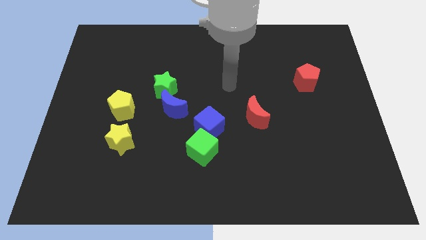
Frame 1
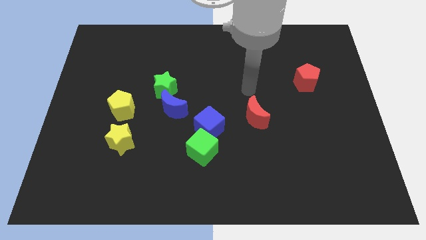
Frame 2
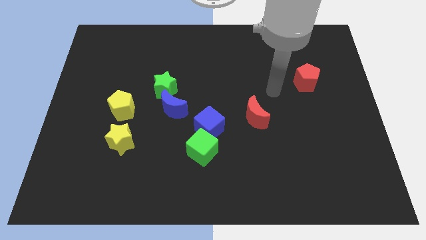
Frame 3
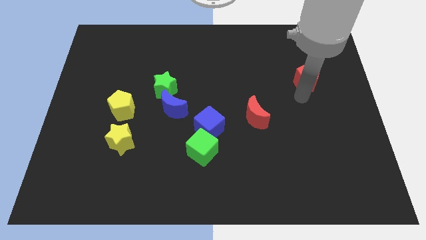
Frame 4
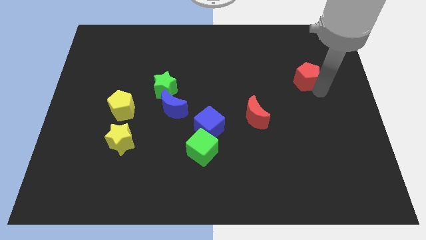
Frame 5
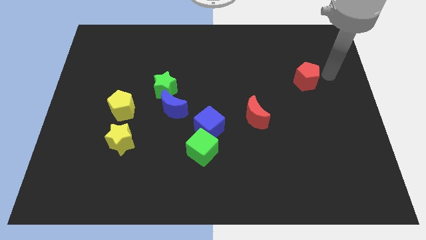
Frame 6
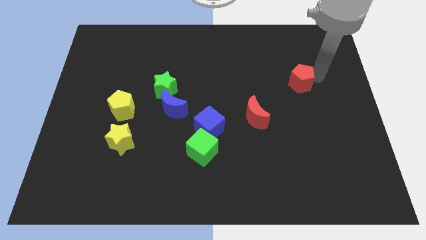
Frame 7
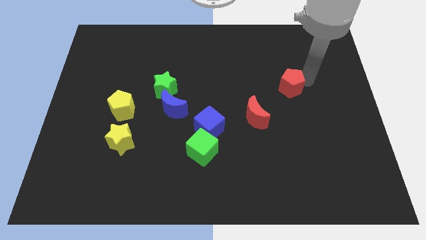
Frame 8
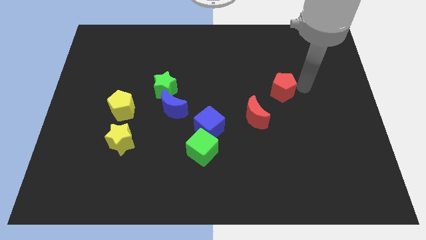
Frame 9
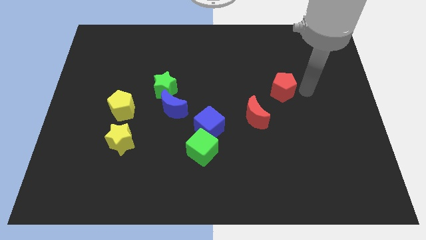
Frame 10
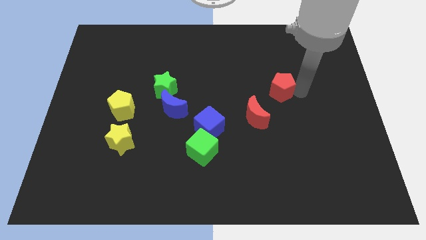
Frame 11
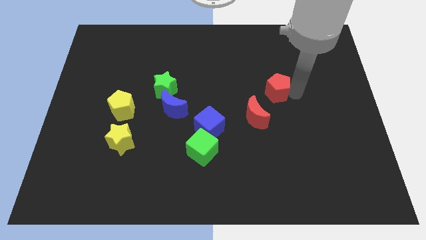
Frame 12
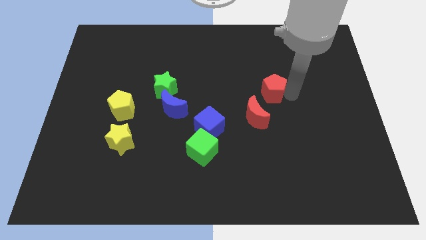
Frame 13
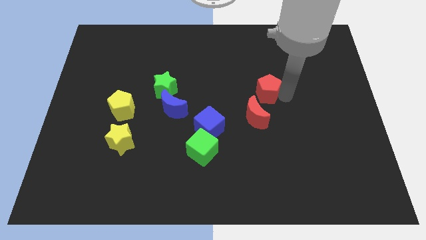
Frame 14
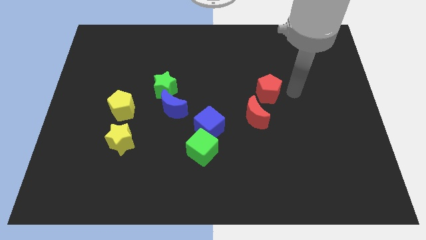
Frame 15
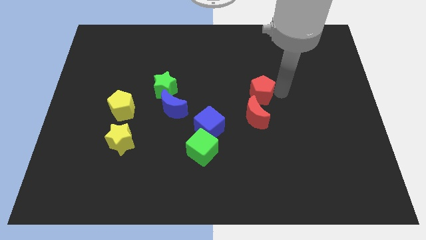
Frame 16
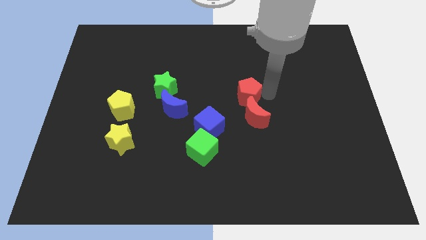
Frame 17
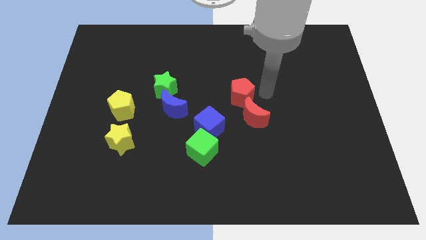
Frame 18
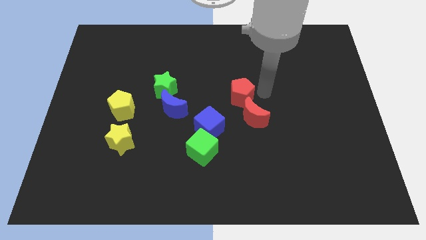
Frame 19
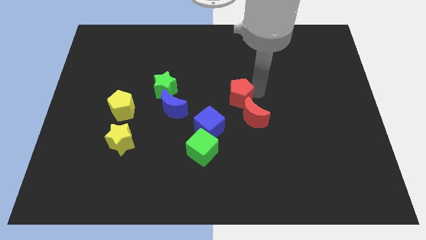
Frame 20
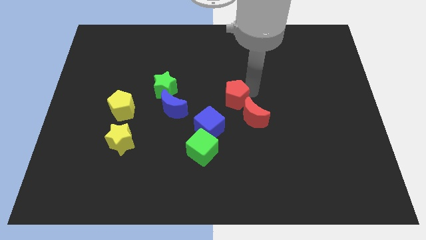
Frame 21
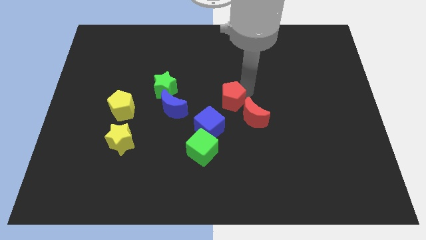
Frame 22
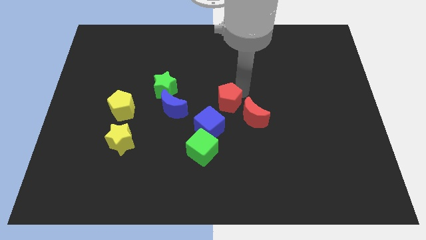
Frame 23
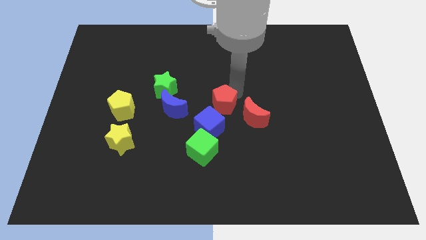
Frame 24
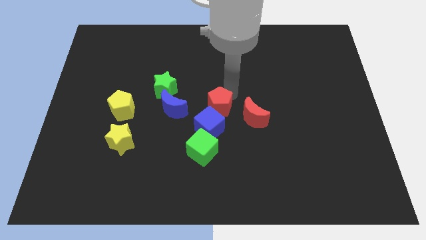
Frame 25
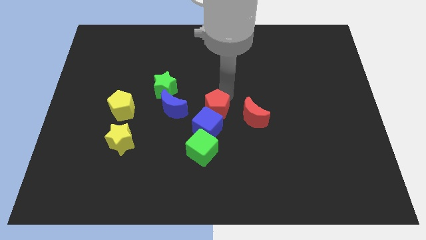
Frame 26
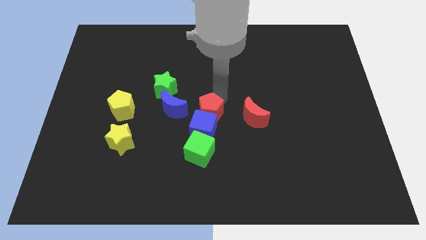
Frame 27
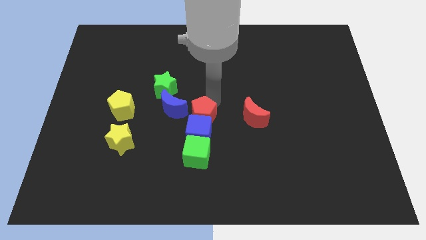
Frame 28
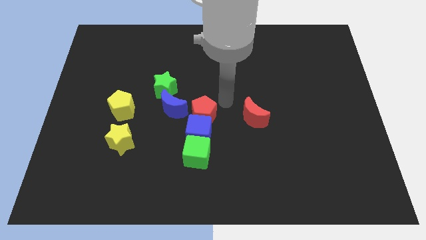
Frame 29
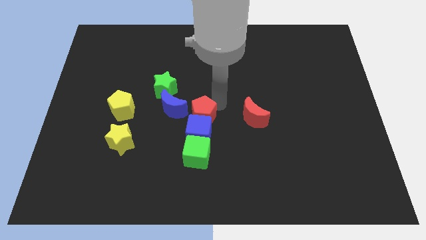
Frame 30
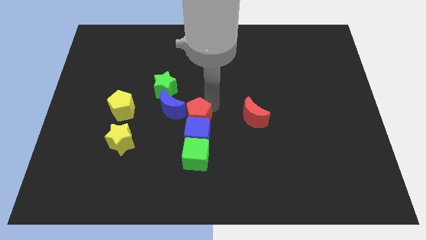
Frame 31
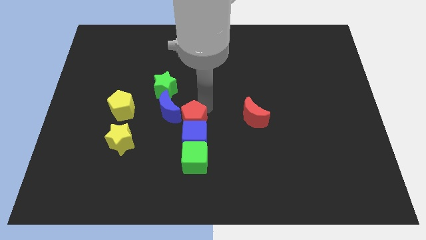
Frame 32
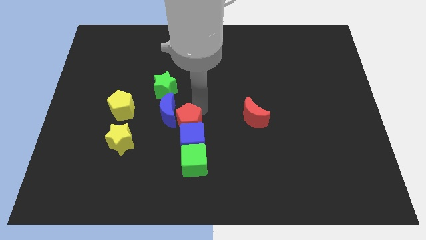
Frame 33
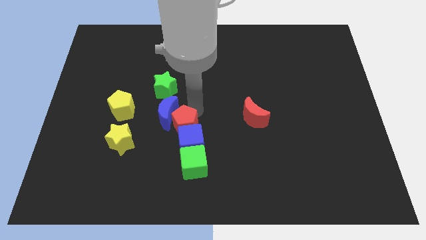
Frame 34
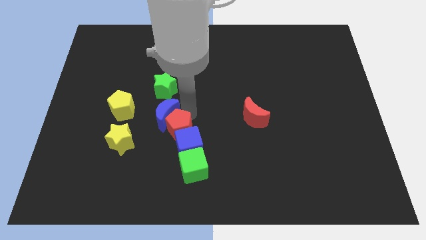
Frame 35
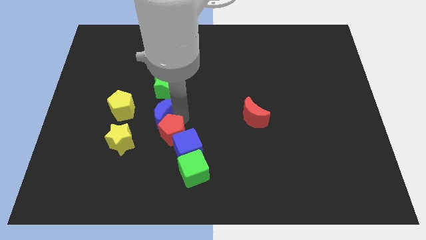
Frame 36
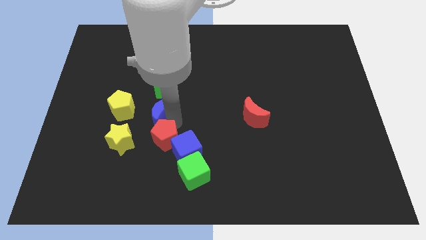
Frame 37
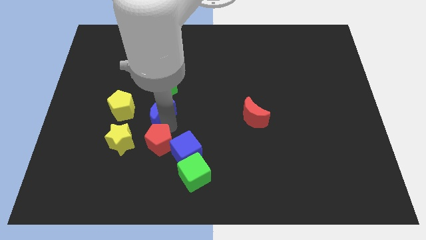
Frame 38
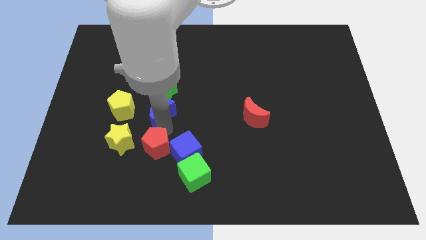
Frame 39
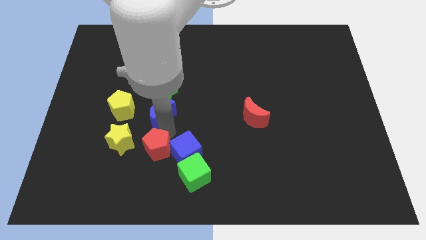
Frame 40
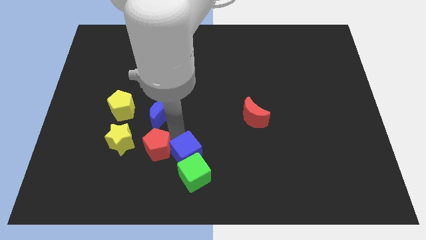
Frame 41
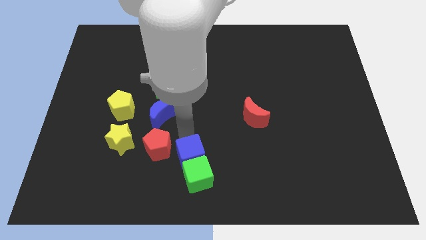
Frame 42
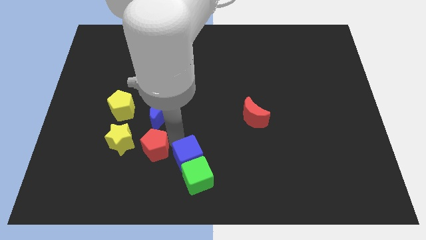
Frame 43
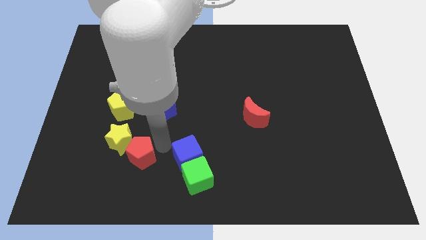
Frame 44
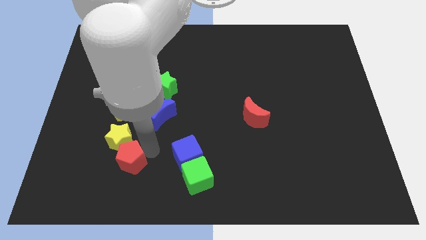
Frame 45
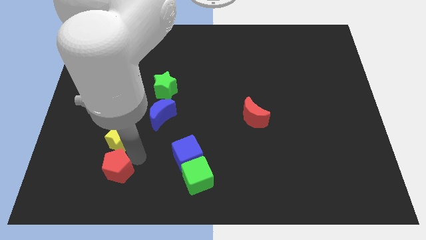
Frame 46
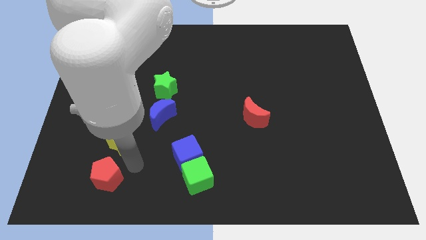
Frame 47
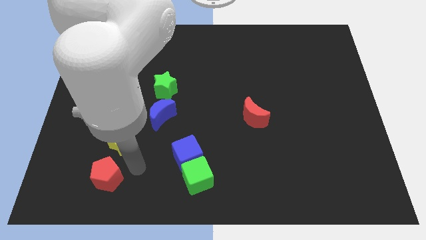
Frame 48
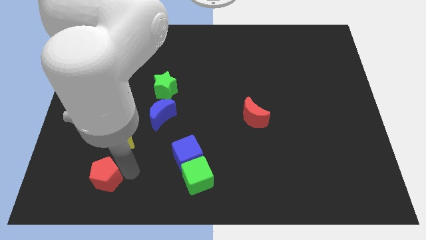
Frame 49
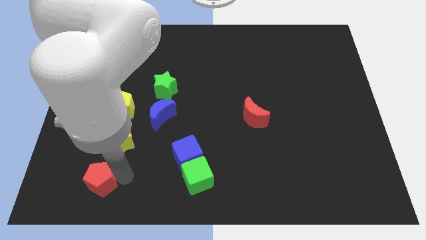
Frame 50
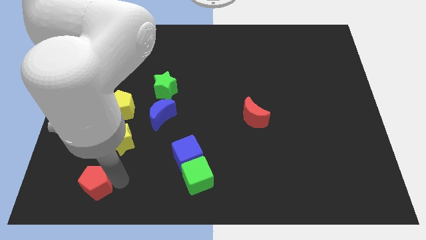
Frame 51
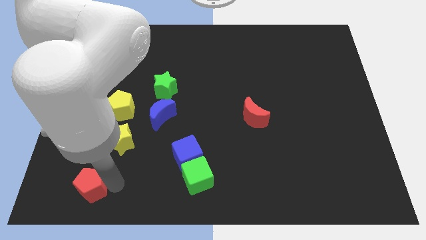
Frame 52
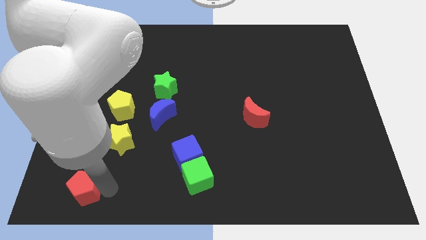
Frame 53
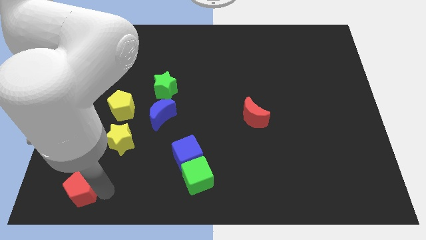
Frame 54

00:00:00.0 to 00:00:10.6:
move the red pentagon to the bottom left corner
